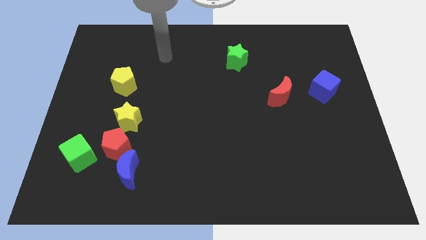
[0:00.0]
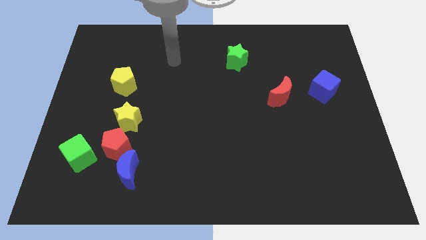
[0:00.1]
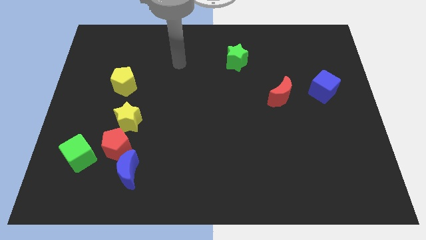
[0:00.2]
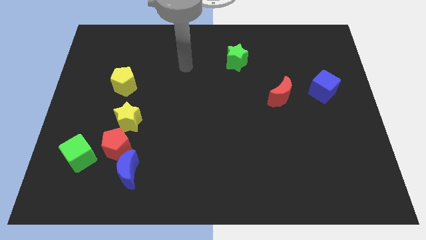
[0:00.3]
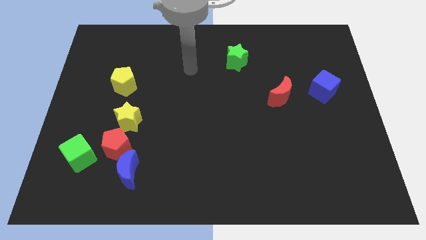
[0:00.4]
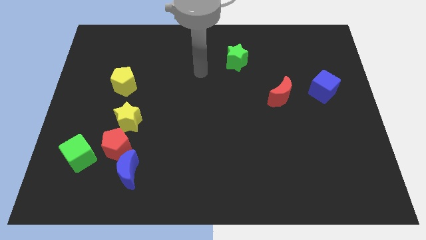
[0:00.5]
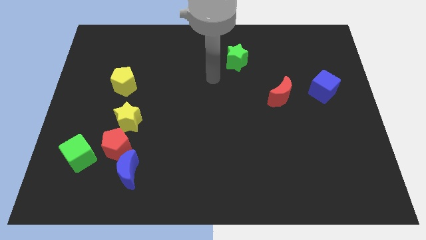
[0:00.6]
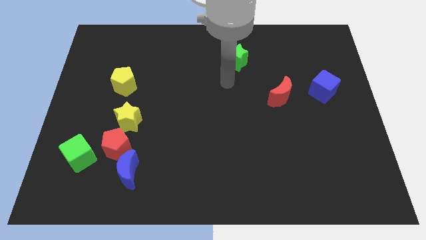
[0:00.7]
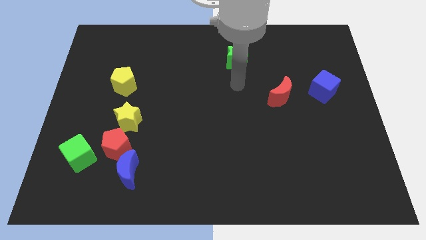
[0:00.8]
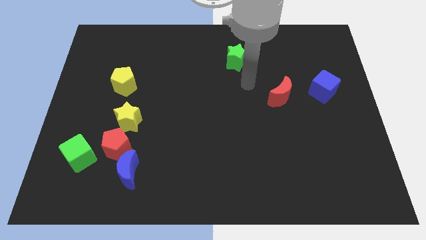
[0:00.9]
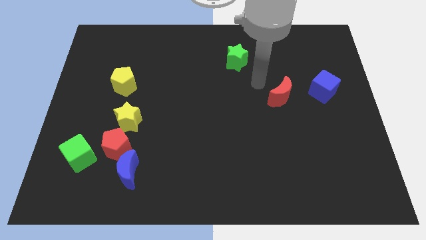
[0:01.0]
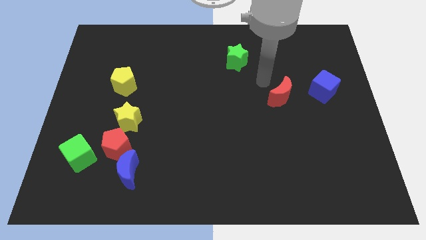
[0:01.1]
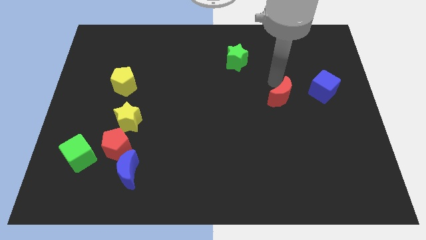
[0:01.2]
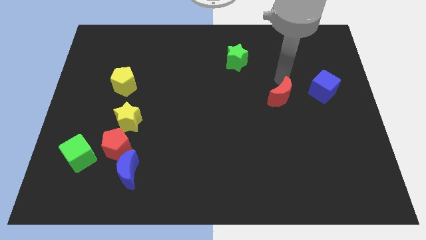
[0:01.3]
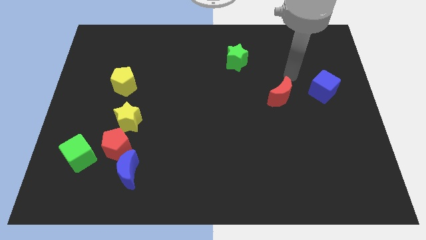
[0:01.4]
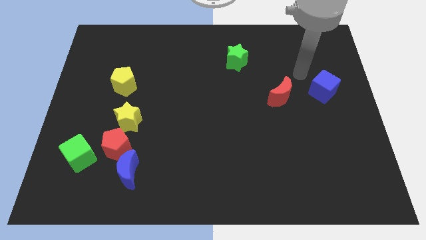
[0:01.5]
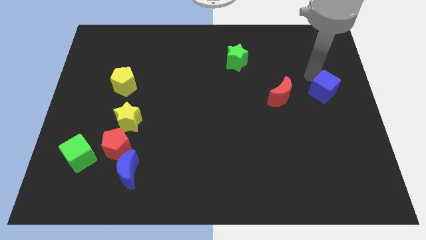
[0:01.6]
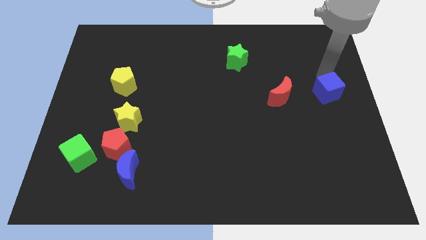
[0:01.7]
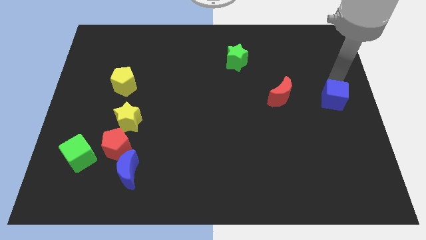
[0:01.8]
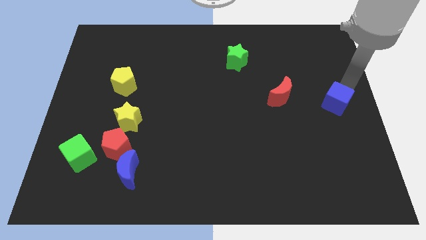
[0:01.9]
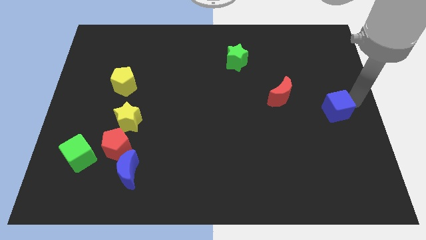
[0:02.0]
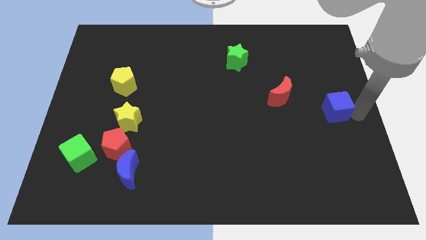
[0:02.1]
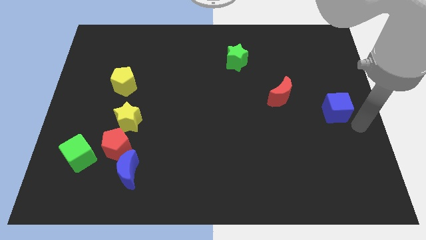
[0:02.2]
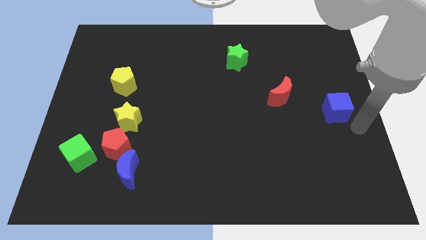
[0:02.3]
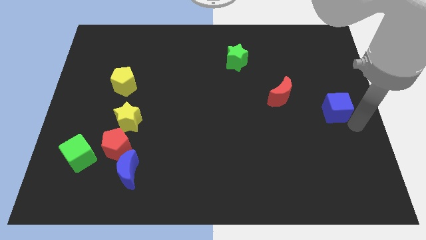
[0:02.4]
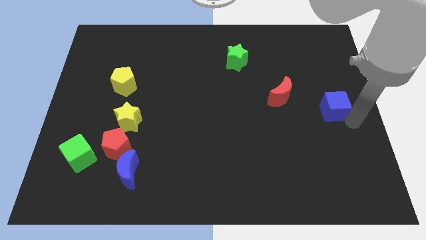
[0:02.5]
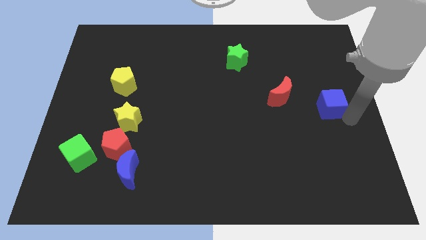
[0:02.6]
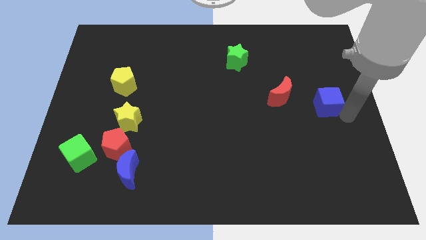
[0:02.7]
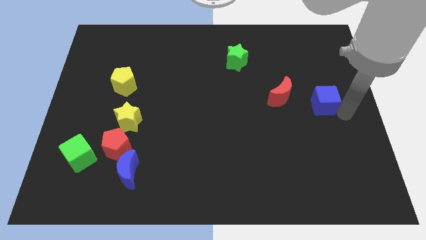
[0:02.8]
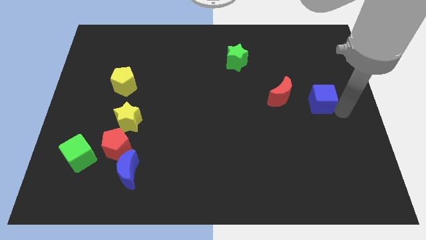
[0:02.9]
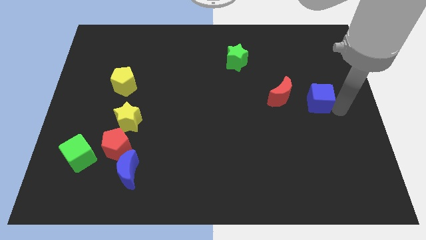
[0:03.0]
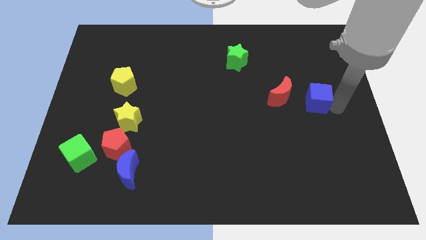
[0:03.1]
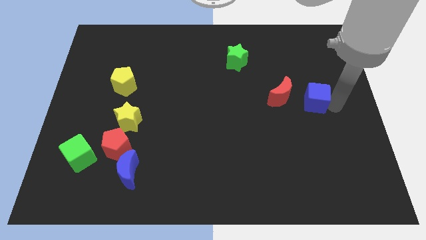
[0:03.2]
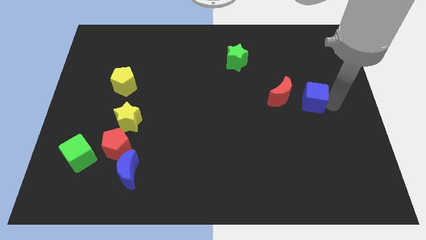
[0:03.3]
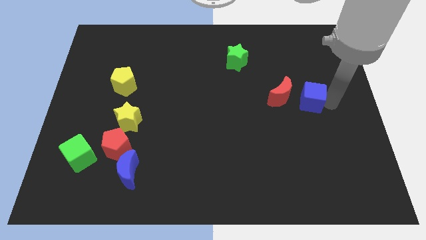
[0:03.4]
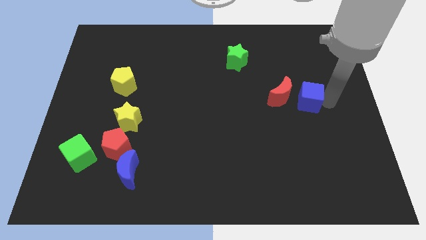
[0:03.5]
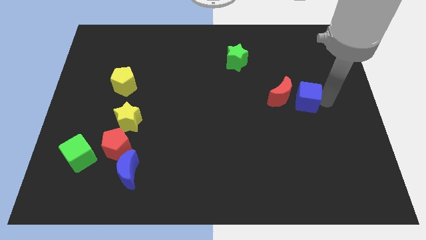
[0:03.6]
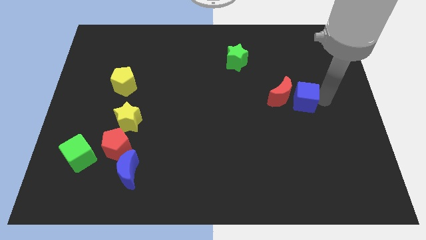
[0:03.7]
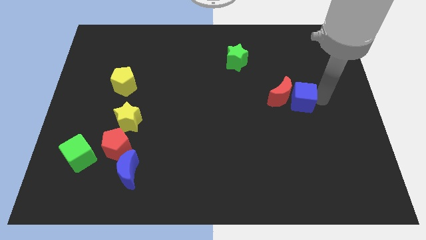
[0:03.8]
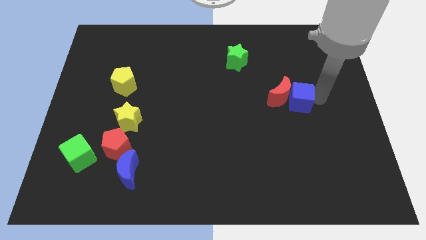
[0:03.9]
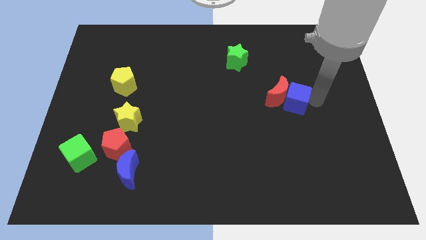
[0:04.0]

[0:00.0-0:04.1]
move the blue cube left a little bit

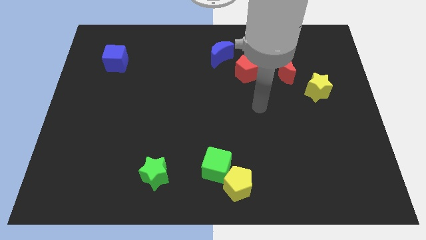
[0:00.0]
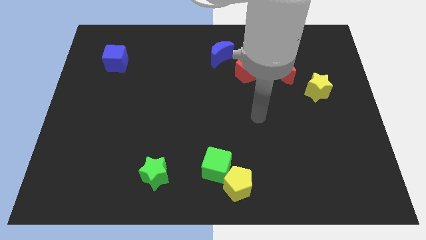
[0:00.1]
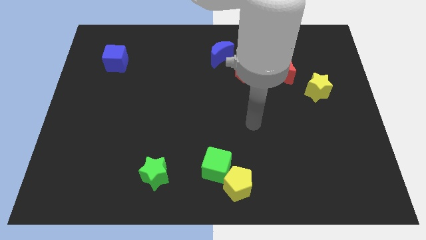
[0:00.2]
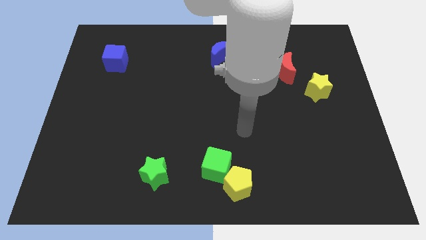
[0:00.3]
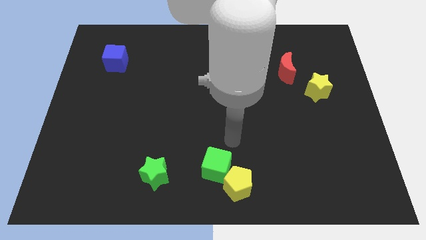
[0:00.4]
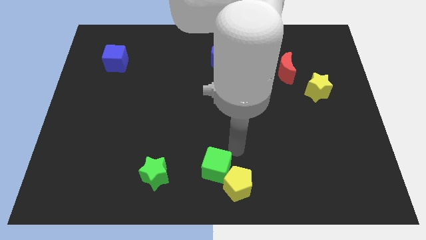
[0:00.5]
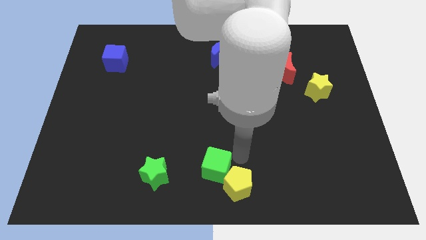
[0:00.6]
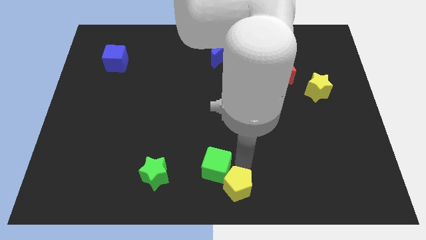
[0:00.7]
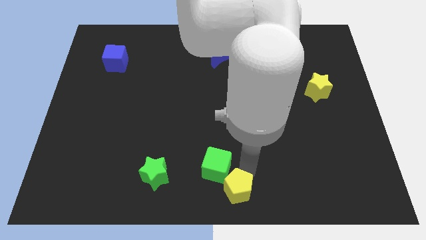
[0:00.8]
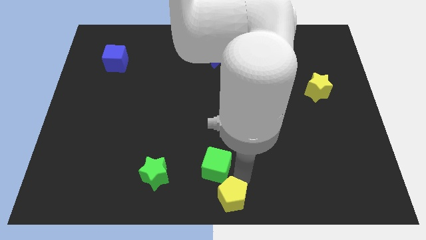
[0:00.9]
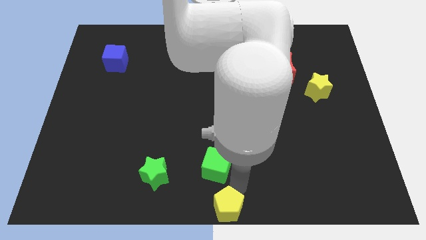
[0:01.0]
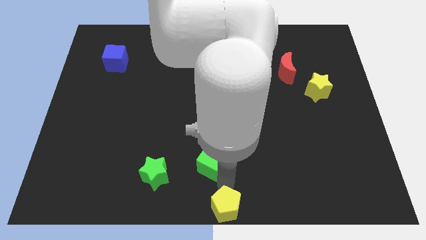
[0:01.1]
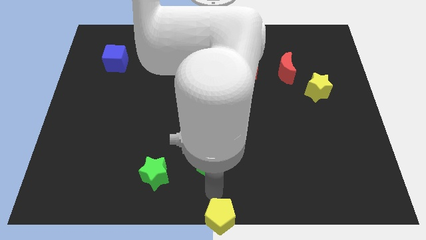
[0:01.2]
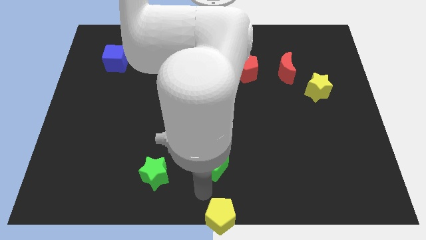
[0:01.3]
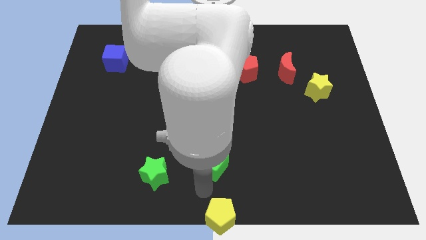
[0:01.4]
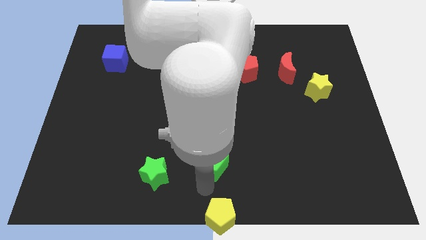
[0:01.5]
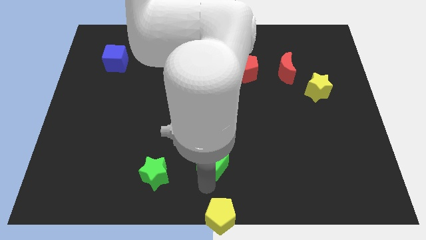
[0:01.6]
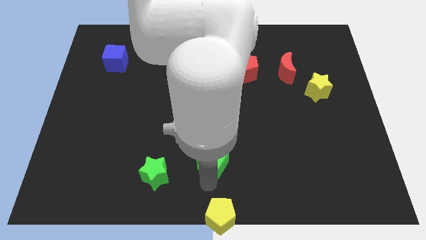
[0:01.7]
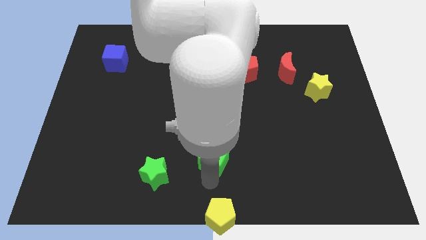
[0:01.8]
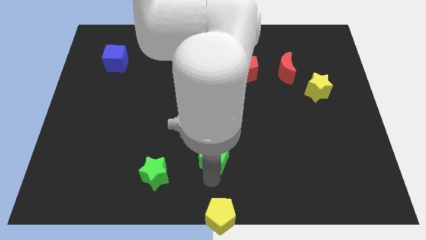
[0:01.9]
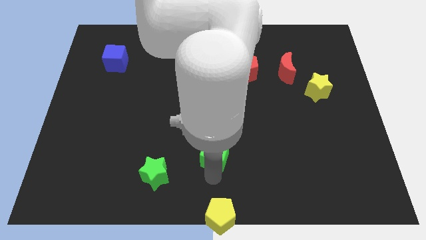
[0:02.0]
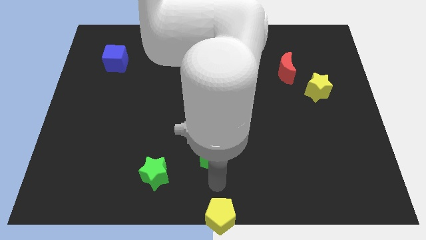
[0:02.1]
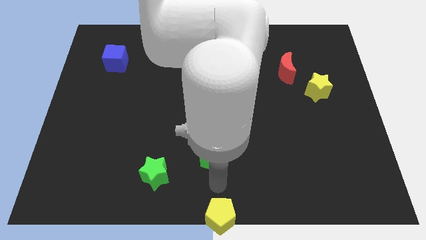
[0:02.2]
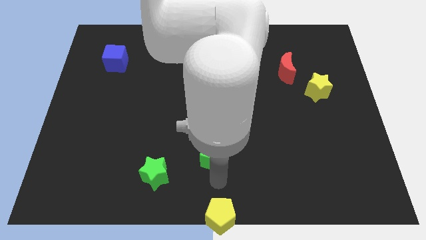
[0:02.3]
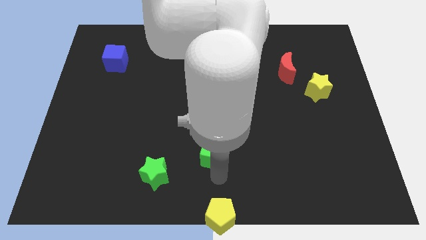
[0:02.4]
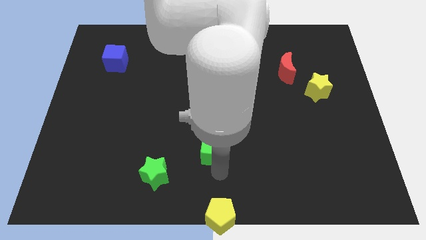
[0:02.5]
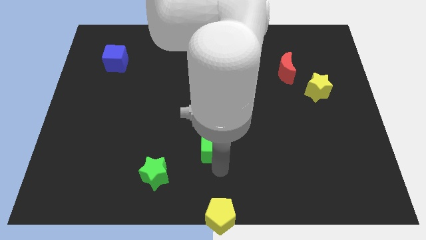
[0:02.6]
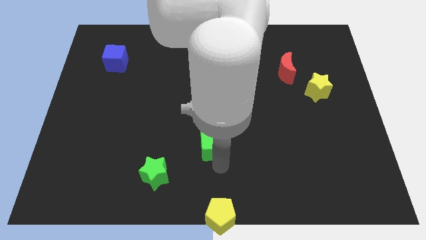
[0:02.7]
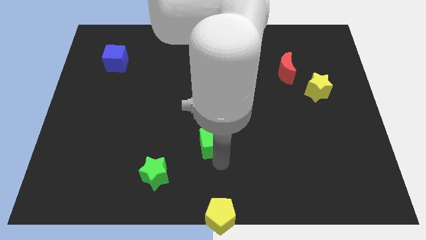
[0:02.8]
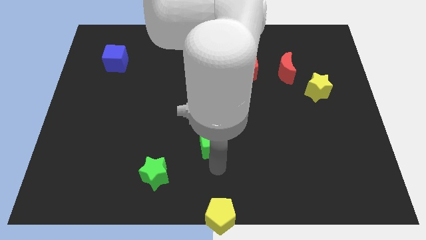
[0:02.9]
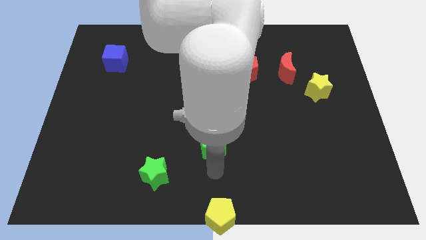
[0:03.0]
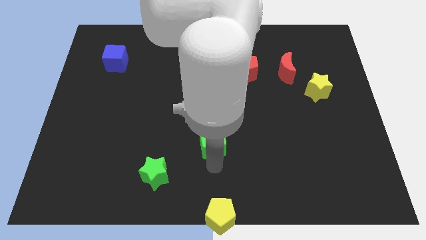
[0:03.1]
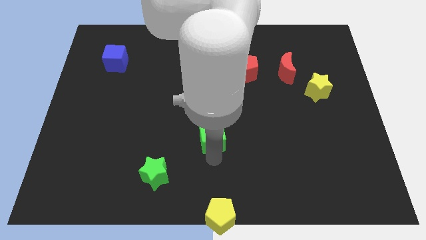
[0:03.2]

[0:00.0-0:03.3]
push the green cube up slightly

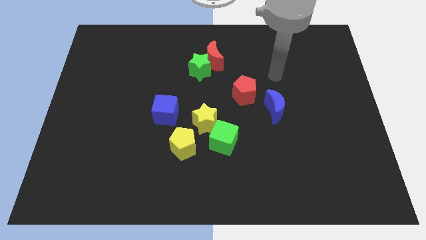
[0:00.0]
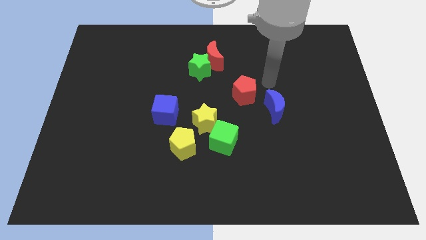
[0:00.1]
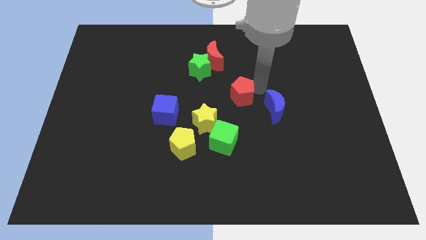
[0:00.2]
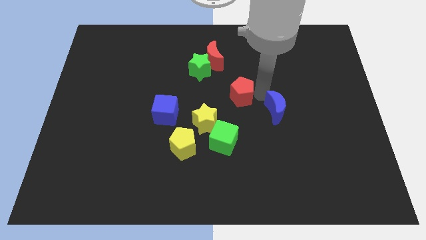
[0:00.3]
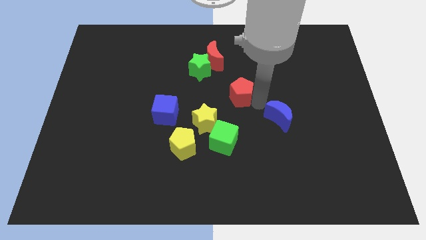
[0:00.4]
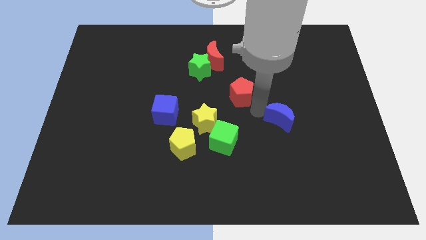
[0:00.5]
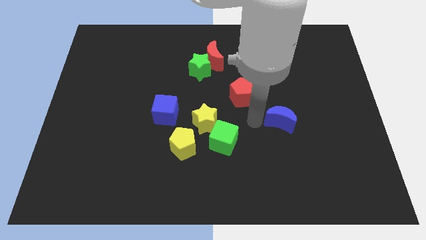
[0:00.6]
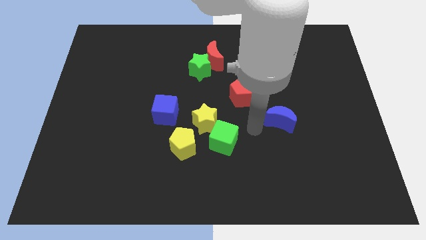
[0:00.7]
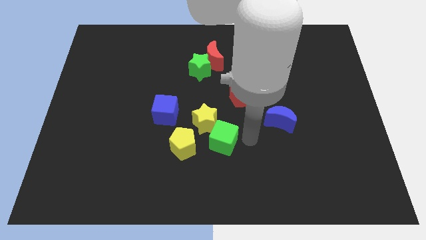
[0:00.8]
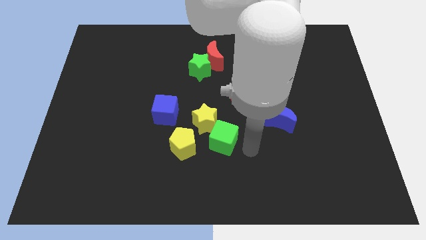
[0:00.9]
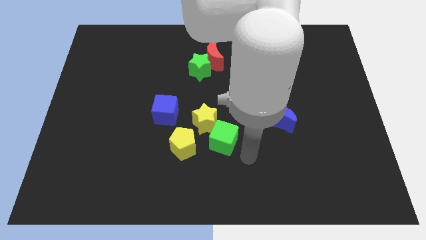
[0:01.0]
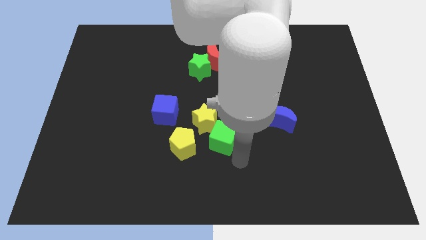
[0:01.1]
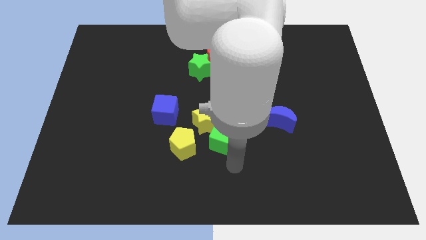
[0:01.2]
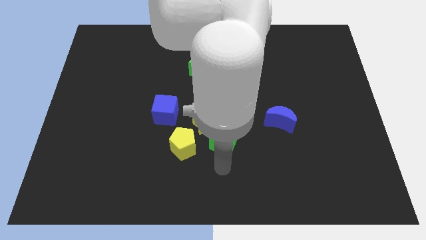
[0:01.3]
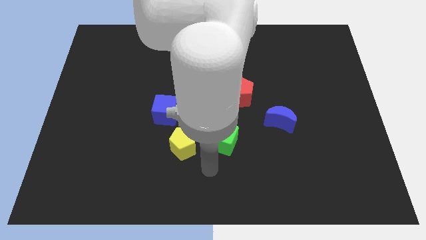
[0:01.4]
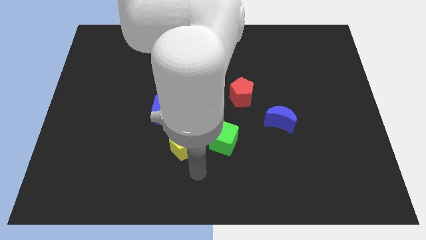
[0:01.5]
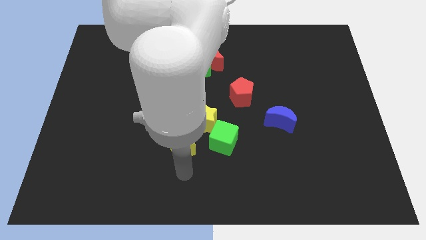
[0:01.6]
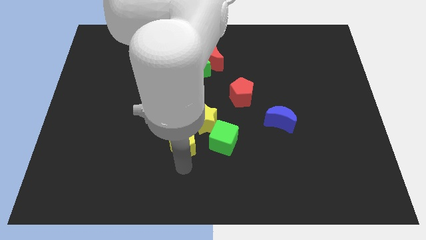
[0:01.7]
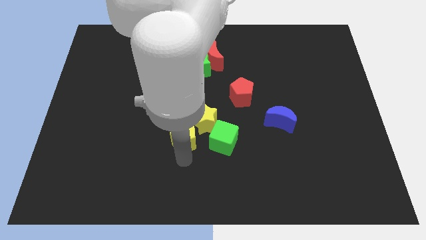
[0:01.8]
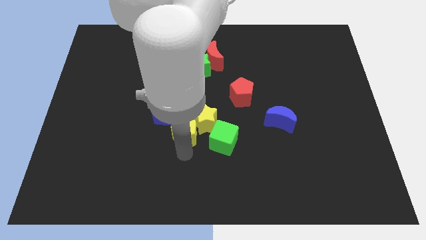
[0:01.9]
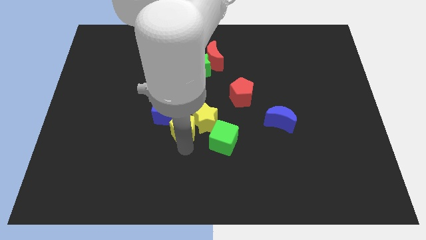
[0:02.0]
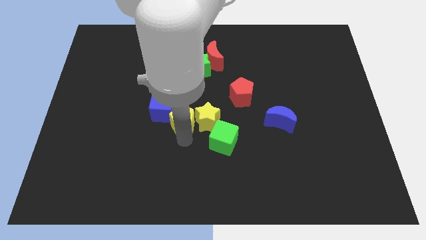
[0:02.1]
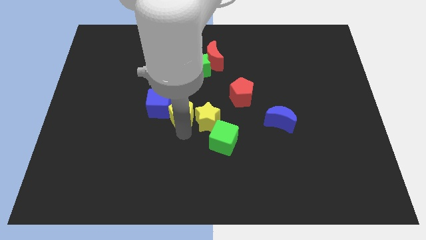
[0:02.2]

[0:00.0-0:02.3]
push the yellow pentagon a little up
